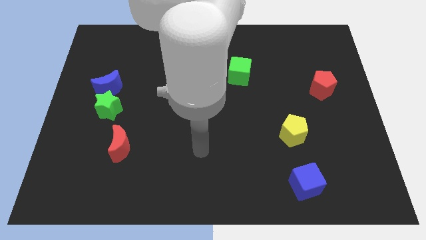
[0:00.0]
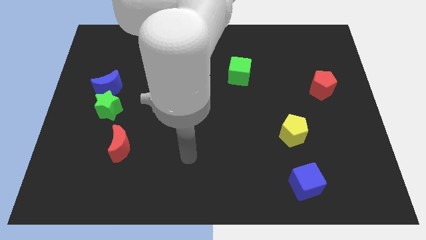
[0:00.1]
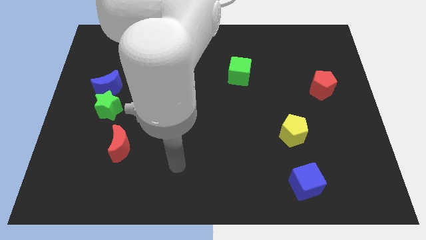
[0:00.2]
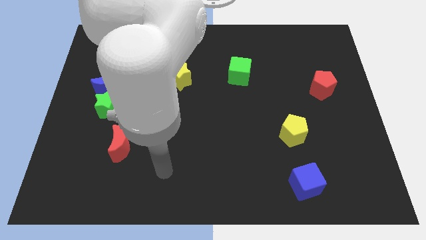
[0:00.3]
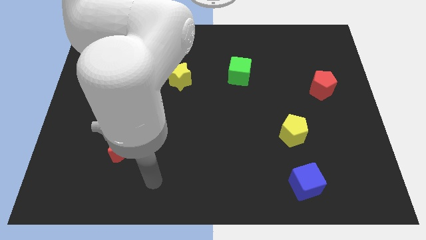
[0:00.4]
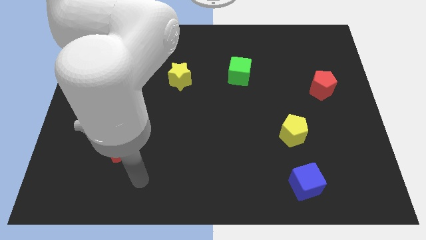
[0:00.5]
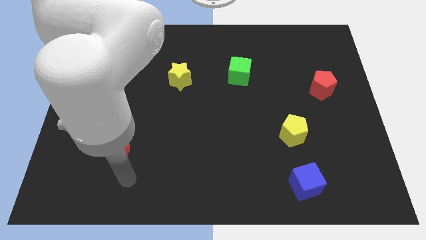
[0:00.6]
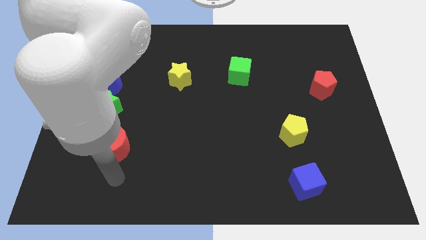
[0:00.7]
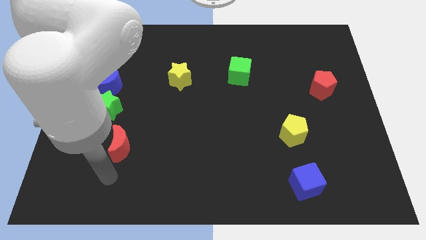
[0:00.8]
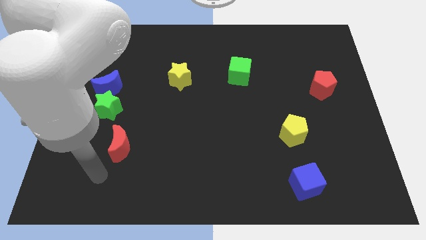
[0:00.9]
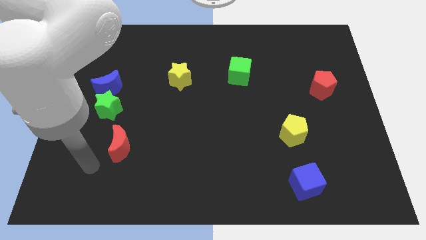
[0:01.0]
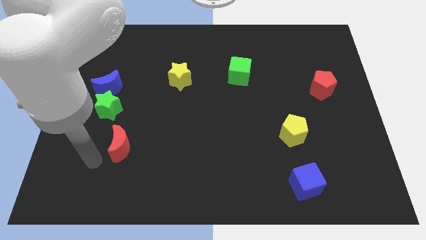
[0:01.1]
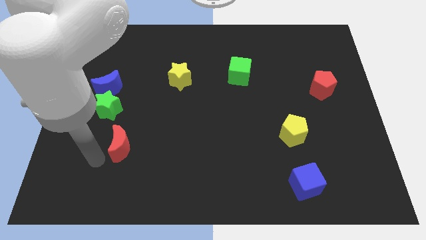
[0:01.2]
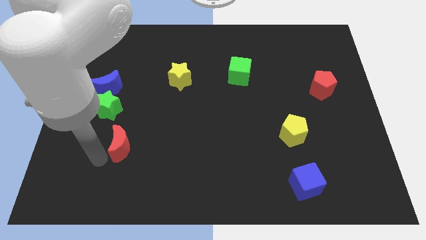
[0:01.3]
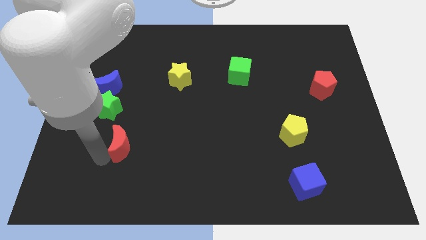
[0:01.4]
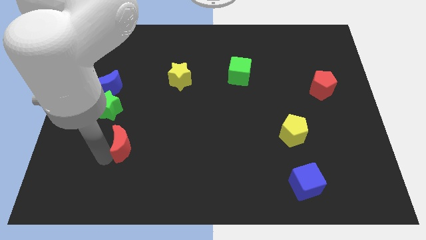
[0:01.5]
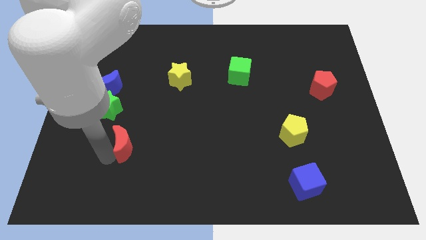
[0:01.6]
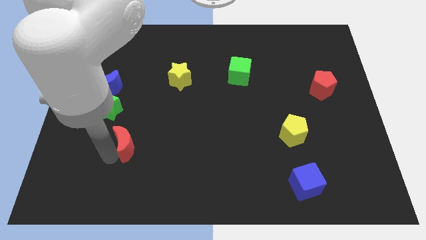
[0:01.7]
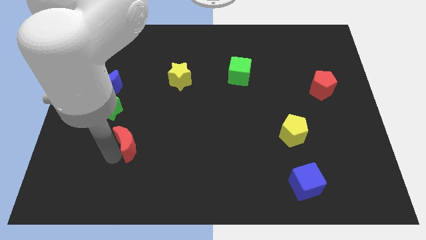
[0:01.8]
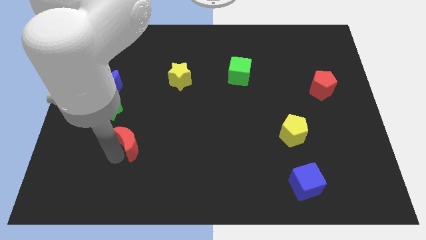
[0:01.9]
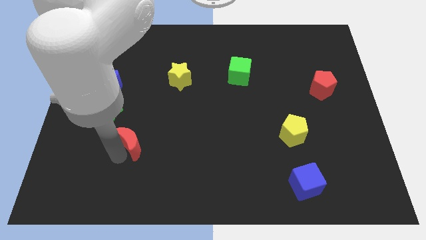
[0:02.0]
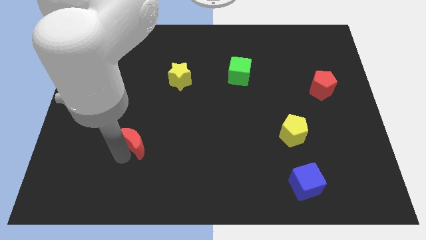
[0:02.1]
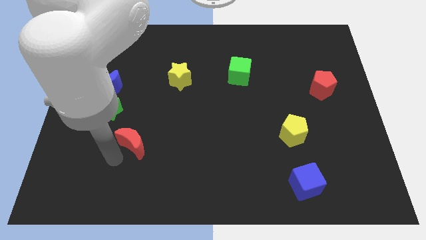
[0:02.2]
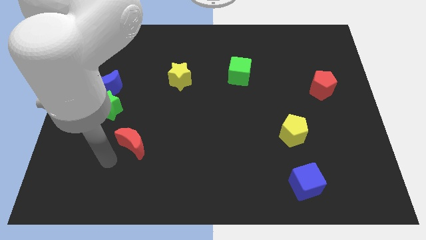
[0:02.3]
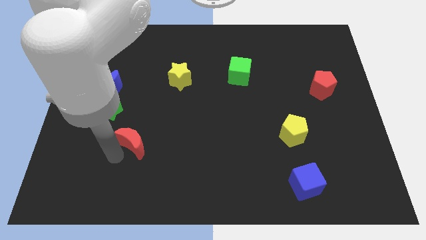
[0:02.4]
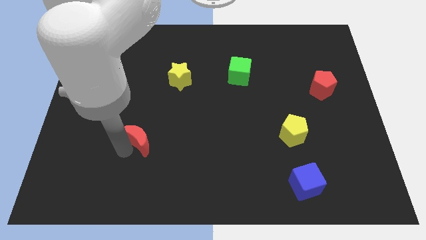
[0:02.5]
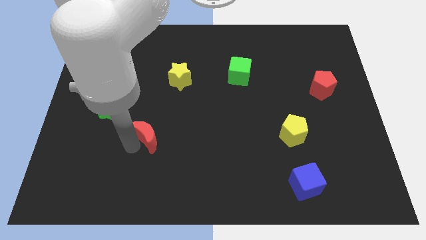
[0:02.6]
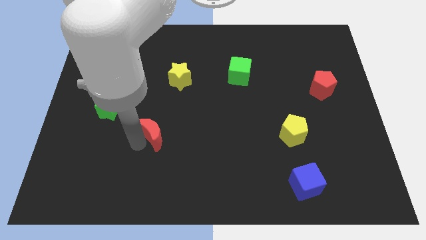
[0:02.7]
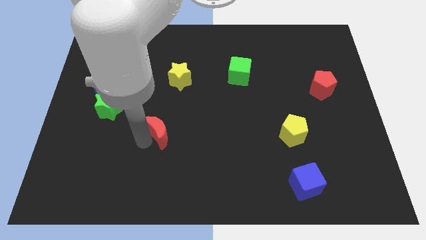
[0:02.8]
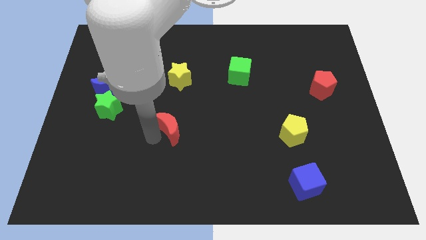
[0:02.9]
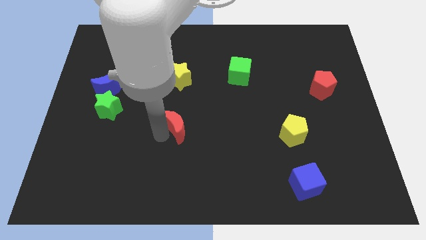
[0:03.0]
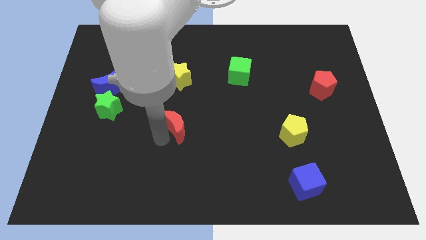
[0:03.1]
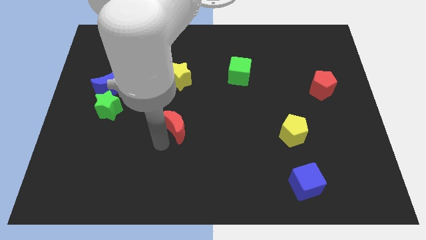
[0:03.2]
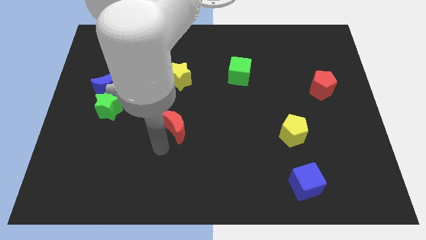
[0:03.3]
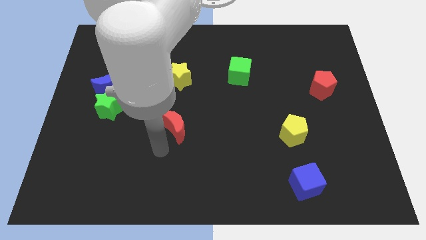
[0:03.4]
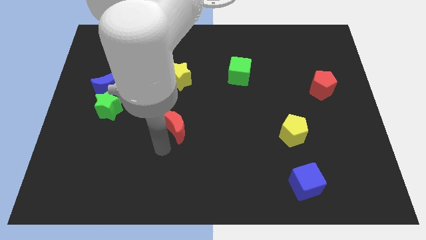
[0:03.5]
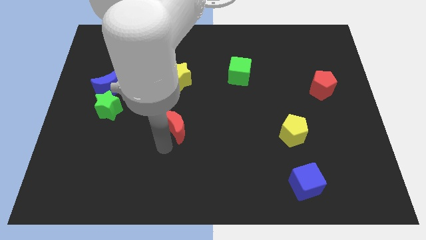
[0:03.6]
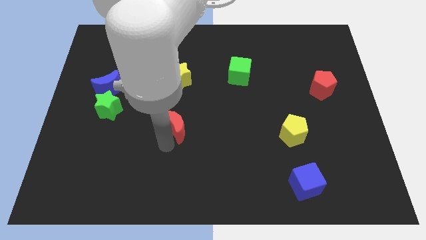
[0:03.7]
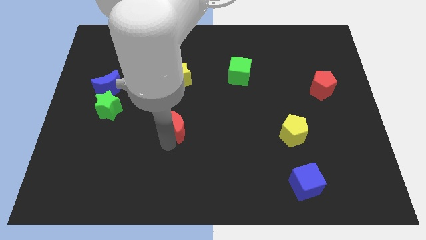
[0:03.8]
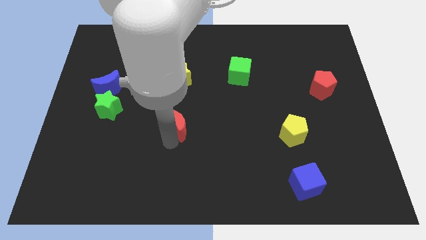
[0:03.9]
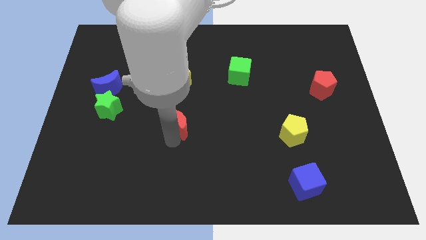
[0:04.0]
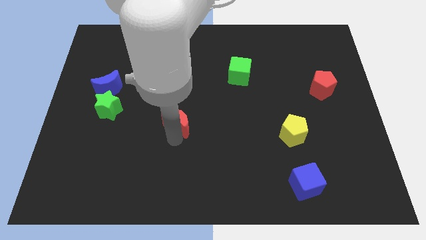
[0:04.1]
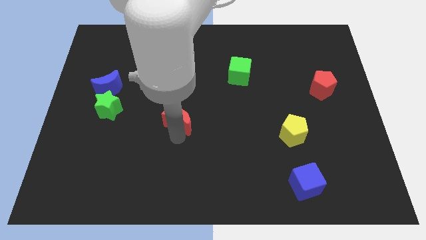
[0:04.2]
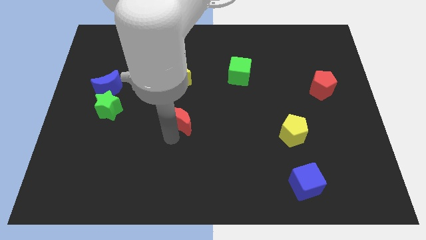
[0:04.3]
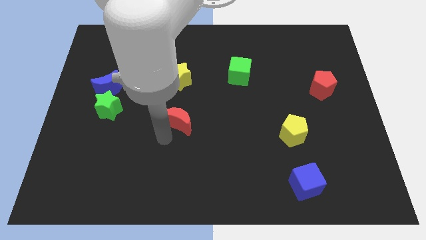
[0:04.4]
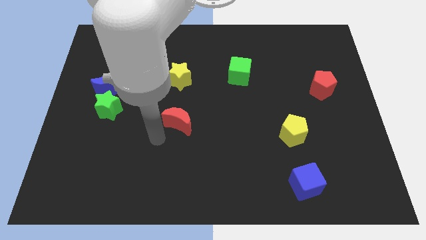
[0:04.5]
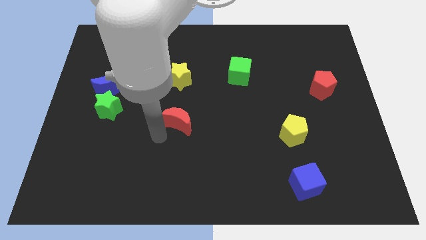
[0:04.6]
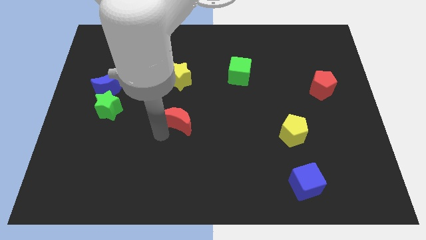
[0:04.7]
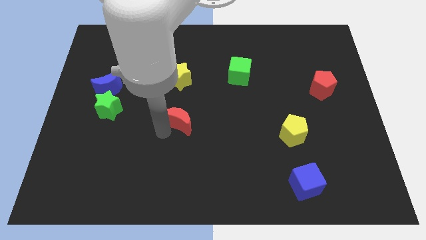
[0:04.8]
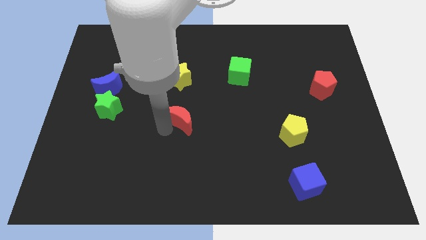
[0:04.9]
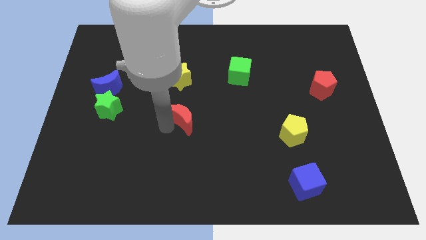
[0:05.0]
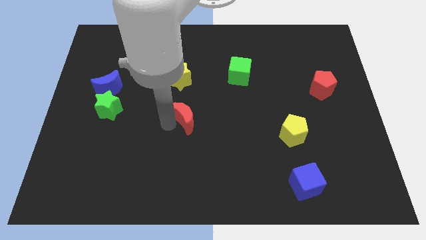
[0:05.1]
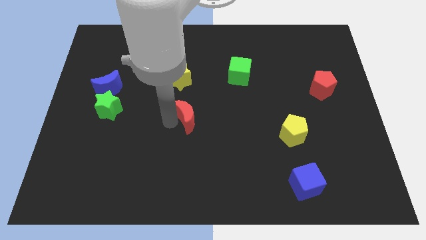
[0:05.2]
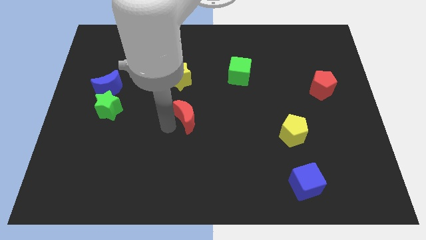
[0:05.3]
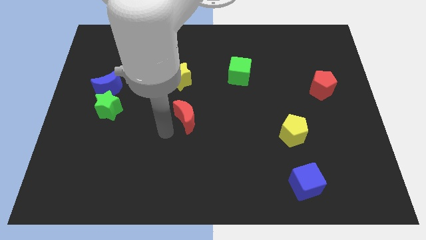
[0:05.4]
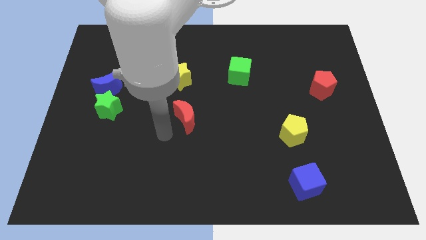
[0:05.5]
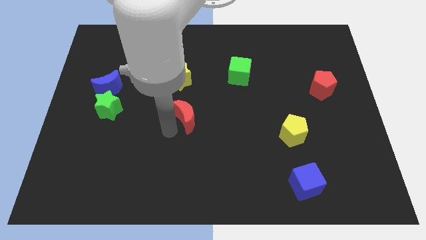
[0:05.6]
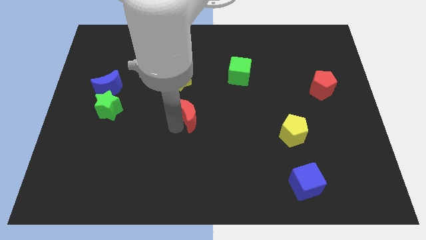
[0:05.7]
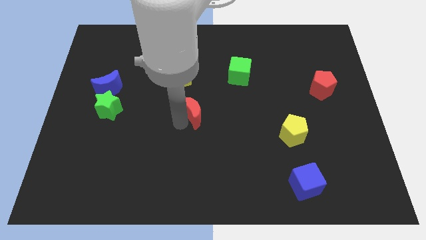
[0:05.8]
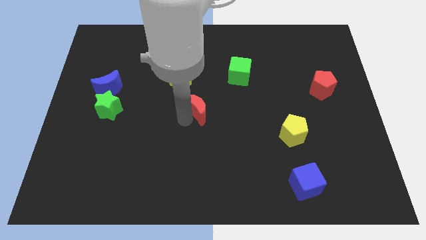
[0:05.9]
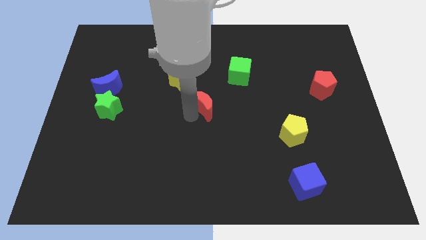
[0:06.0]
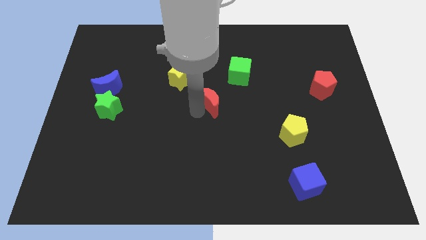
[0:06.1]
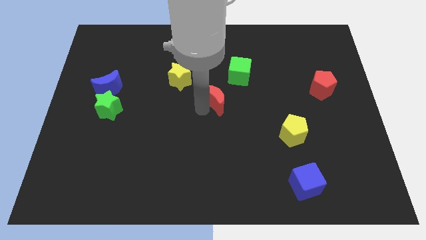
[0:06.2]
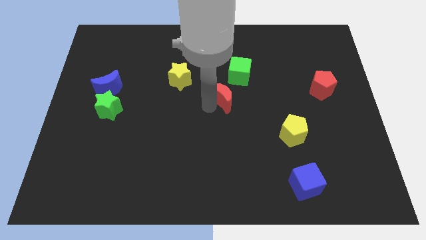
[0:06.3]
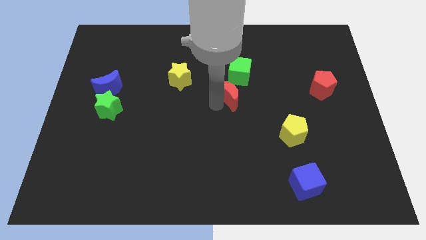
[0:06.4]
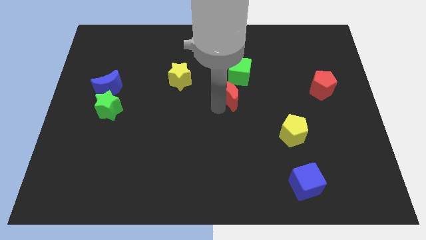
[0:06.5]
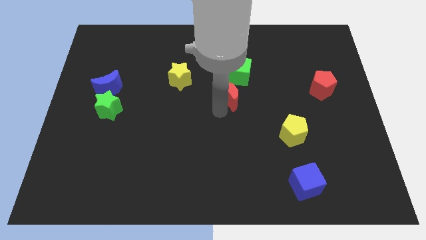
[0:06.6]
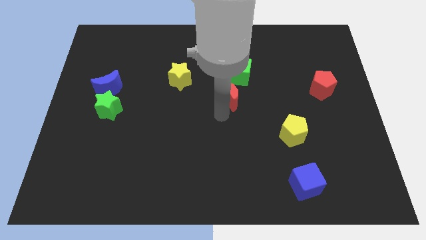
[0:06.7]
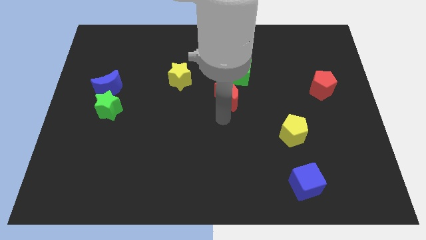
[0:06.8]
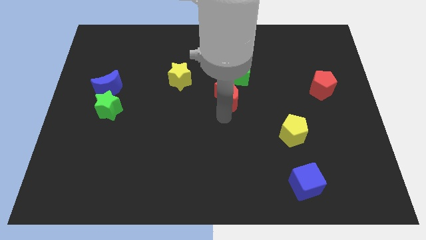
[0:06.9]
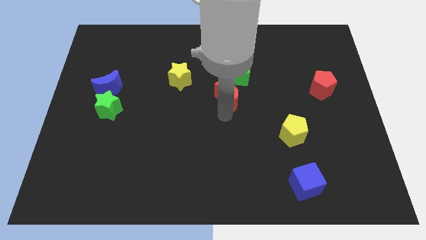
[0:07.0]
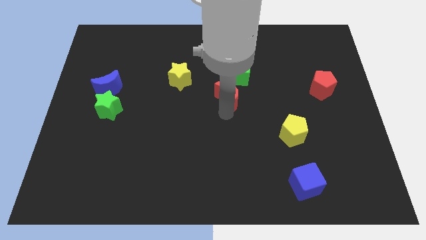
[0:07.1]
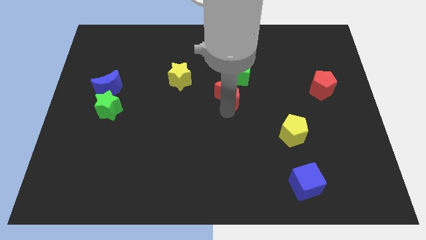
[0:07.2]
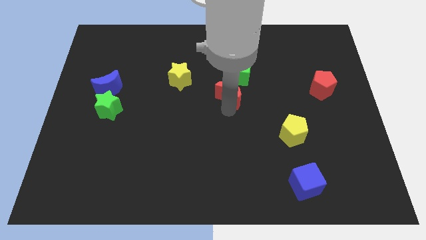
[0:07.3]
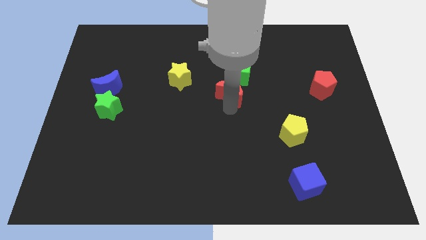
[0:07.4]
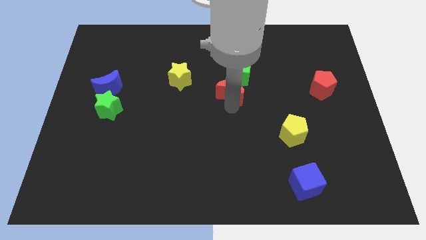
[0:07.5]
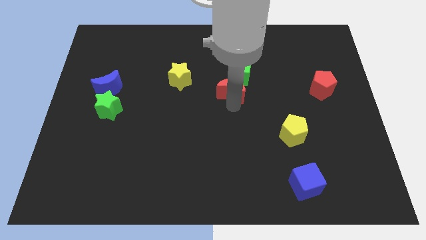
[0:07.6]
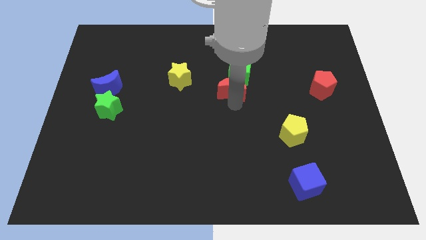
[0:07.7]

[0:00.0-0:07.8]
put the red moon to the green cube
